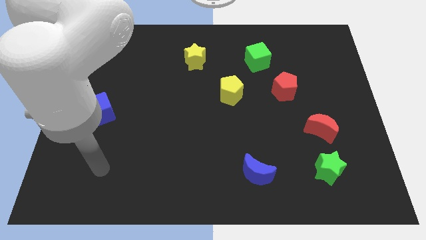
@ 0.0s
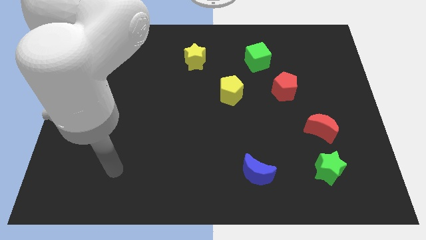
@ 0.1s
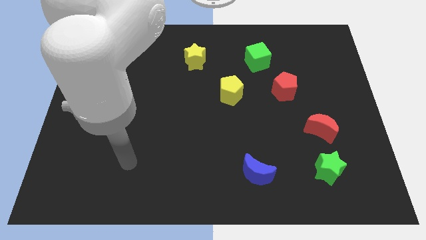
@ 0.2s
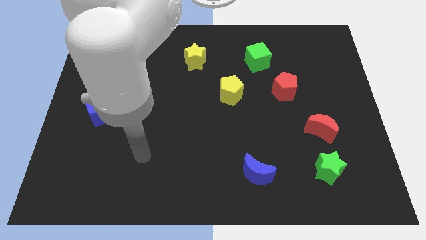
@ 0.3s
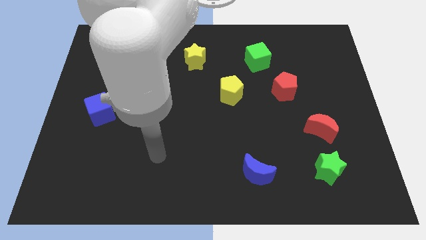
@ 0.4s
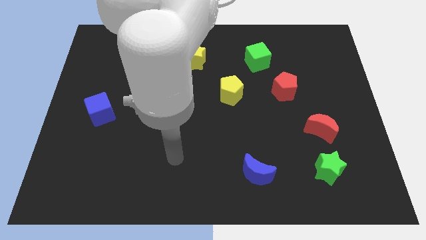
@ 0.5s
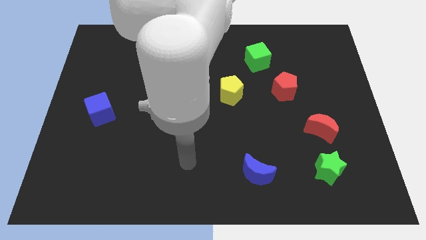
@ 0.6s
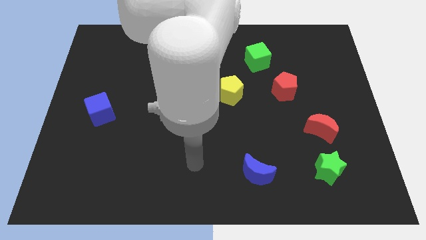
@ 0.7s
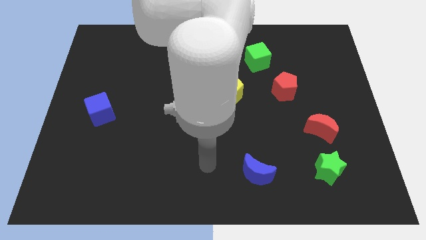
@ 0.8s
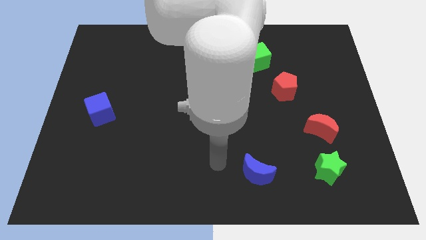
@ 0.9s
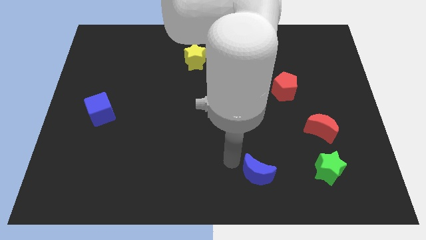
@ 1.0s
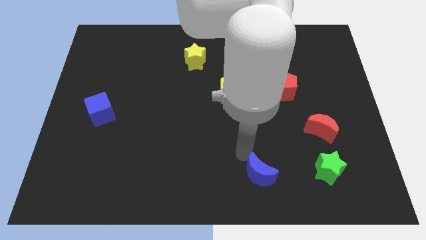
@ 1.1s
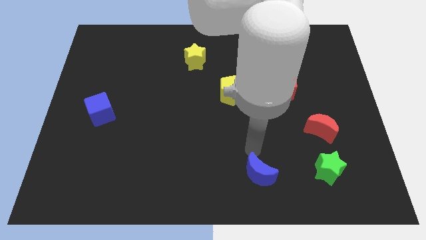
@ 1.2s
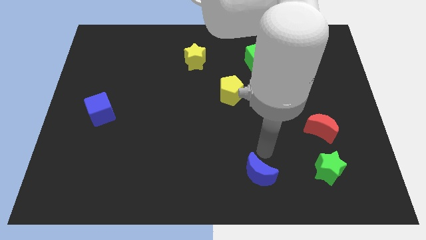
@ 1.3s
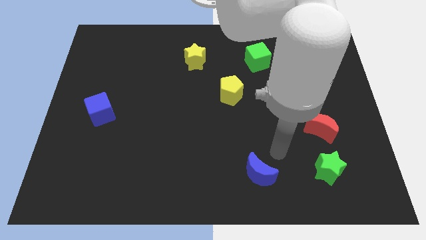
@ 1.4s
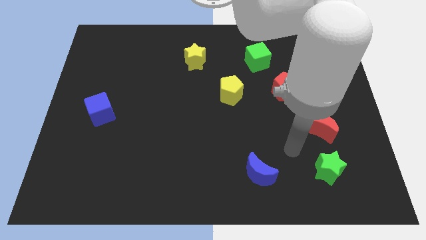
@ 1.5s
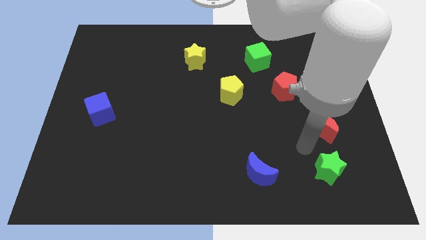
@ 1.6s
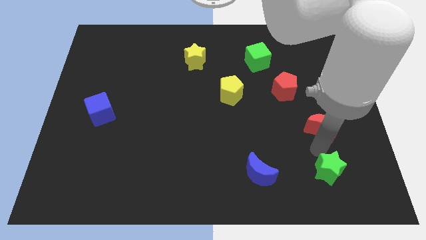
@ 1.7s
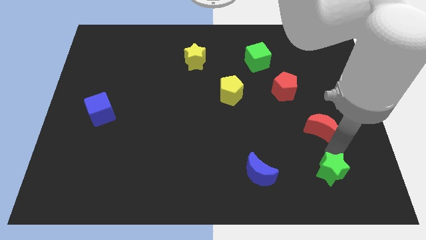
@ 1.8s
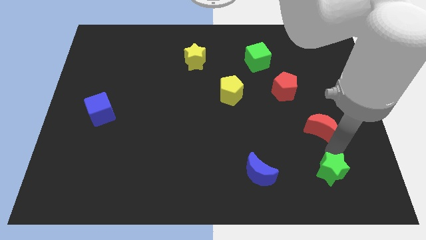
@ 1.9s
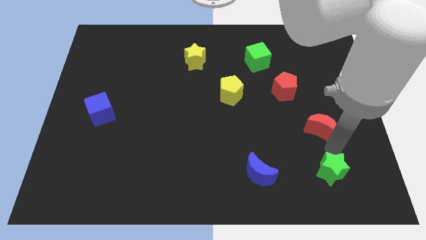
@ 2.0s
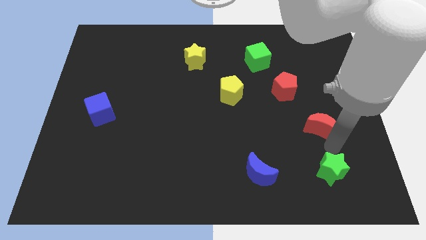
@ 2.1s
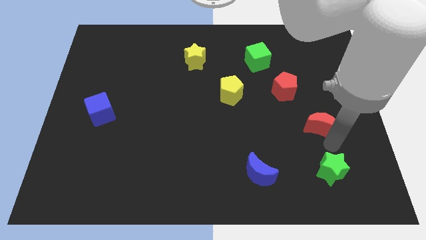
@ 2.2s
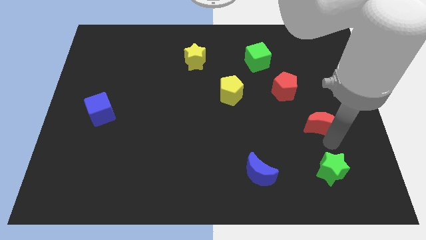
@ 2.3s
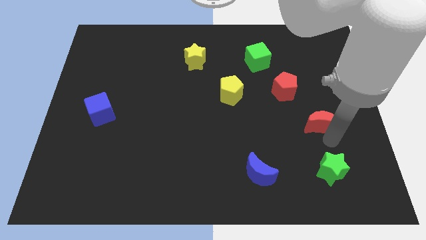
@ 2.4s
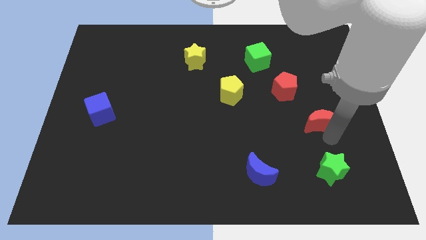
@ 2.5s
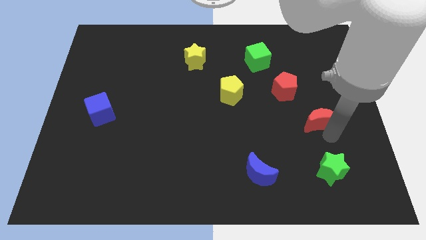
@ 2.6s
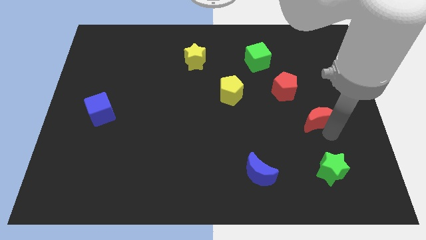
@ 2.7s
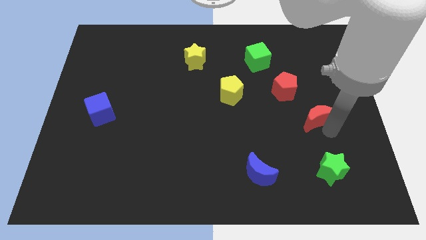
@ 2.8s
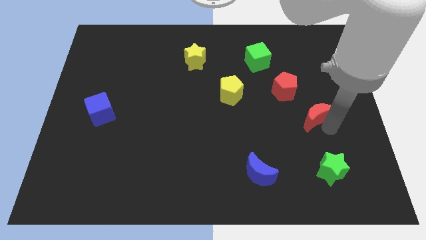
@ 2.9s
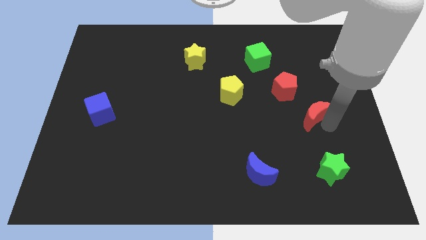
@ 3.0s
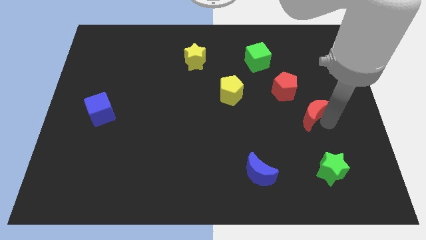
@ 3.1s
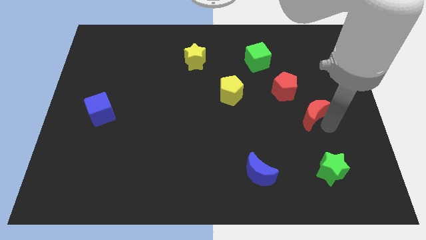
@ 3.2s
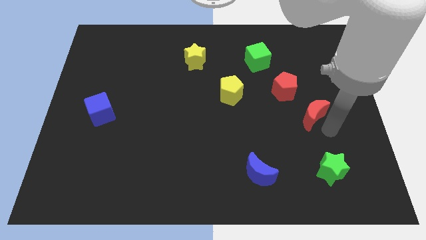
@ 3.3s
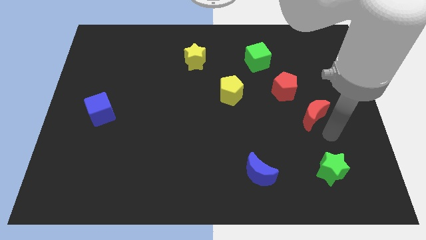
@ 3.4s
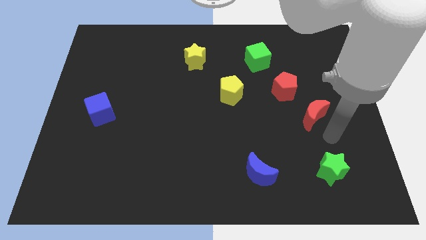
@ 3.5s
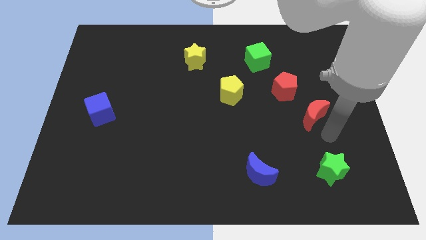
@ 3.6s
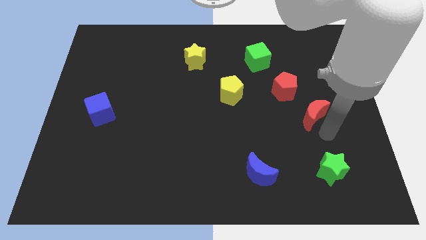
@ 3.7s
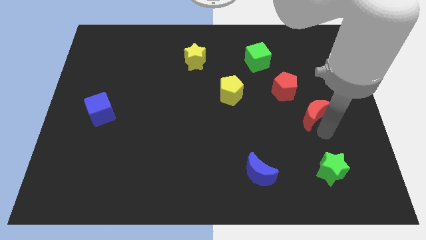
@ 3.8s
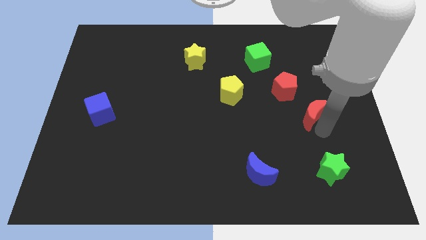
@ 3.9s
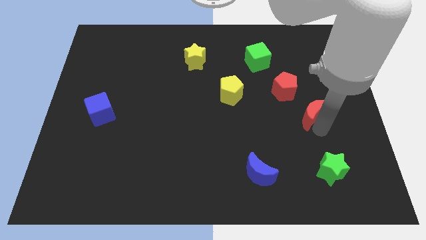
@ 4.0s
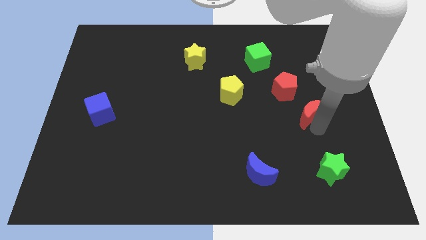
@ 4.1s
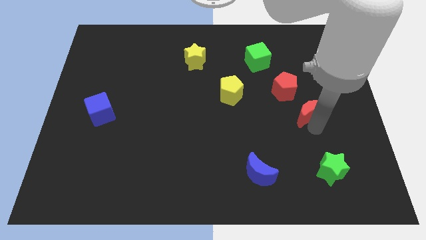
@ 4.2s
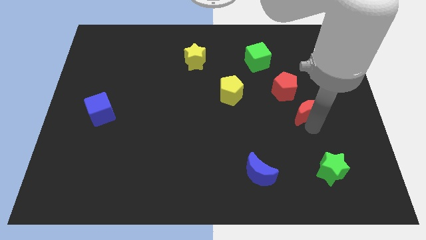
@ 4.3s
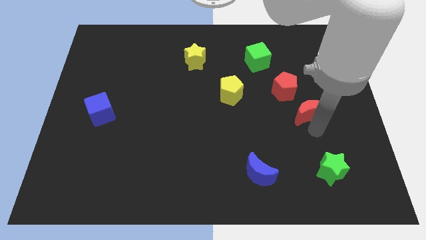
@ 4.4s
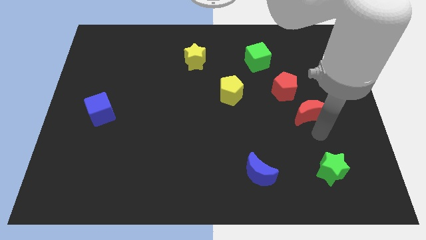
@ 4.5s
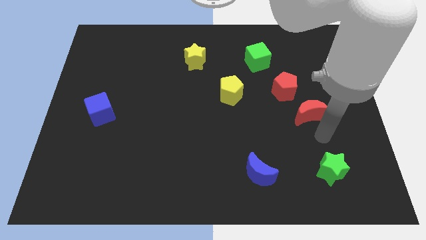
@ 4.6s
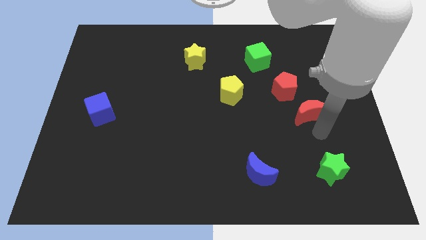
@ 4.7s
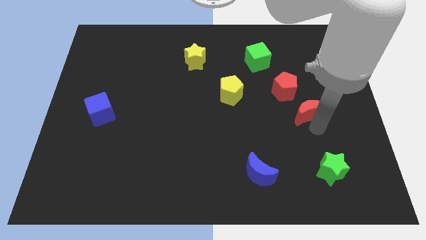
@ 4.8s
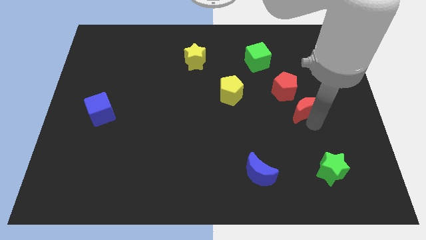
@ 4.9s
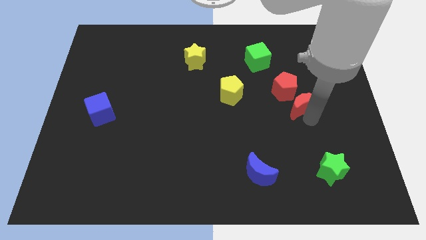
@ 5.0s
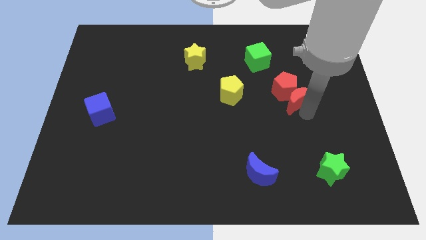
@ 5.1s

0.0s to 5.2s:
move the red moon close to the red pentagon

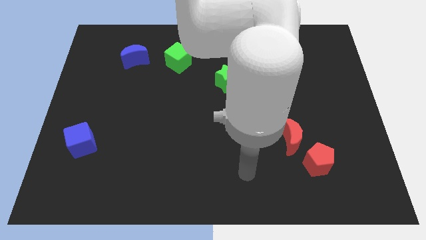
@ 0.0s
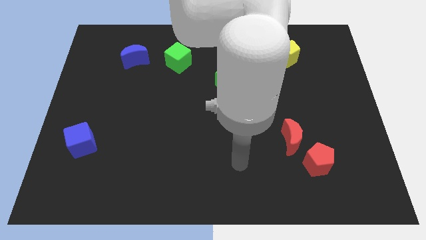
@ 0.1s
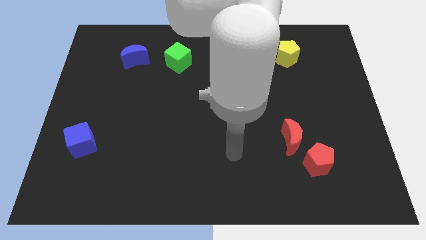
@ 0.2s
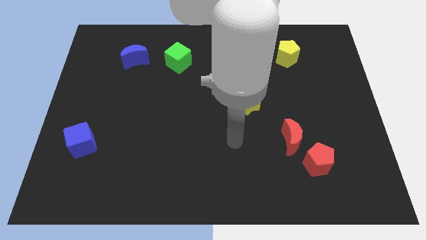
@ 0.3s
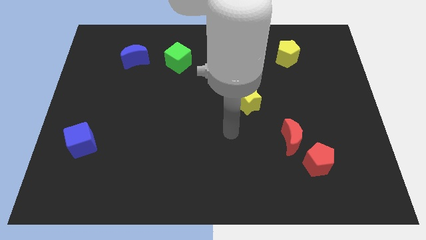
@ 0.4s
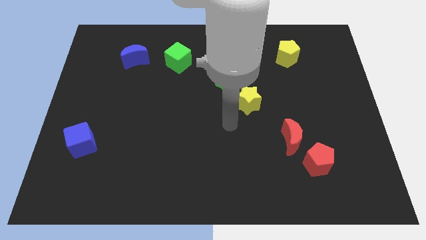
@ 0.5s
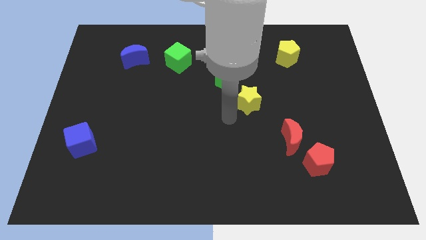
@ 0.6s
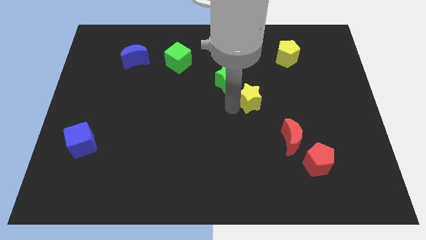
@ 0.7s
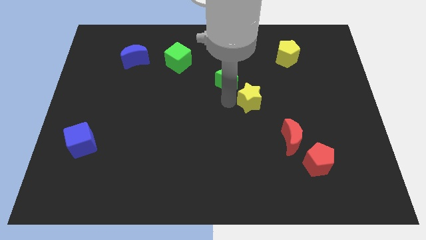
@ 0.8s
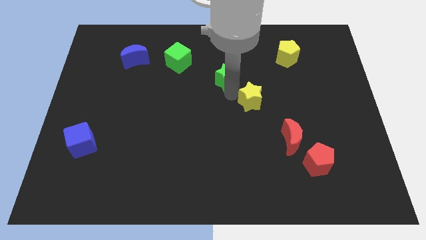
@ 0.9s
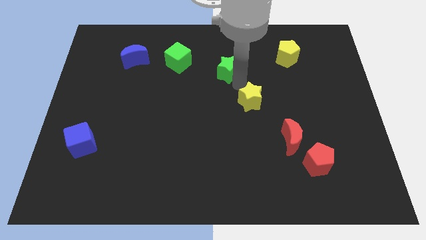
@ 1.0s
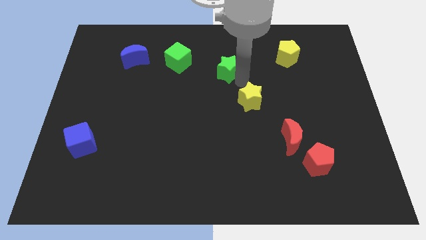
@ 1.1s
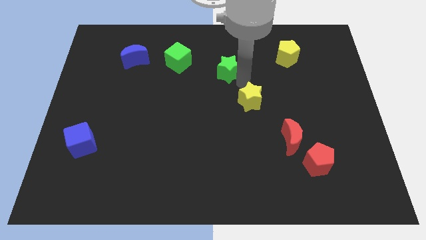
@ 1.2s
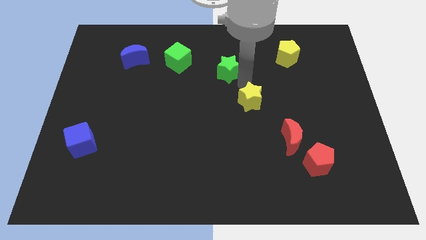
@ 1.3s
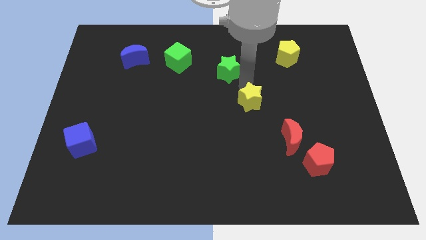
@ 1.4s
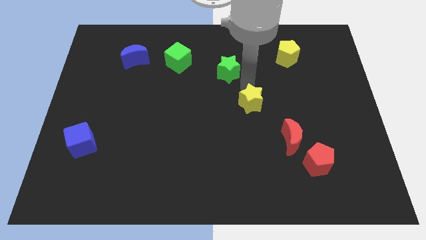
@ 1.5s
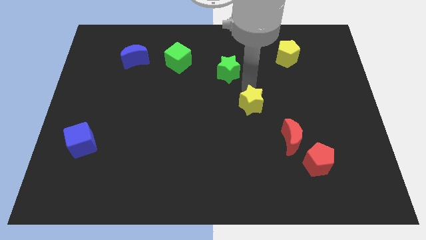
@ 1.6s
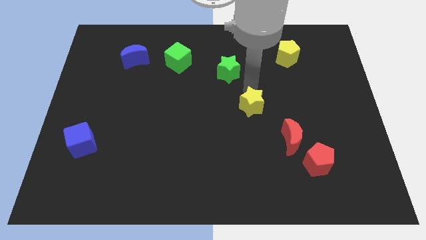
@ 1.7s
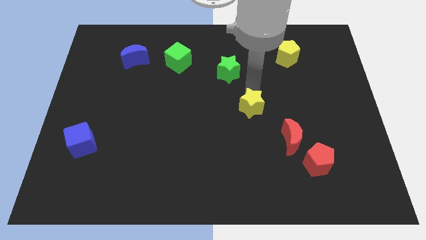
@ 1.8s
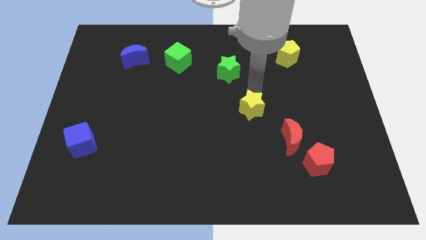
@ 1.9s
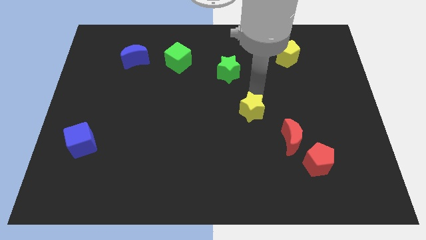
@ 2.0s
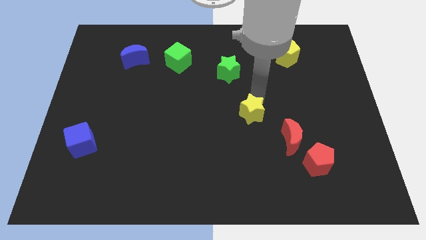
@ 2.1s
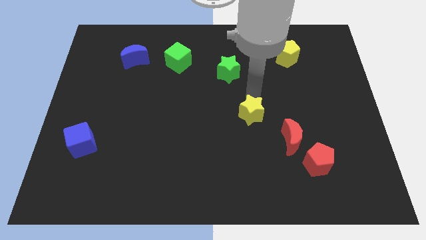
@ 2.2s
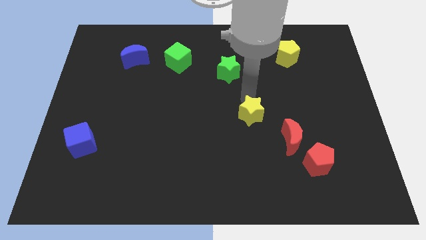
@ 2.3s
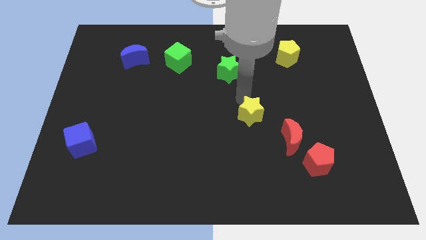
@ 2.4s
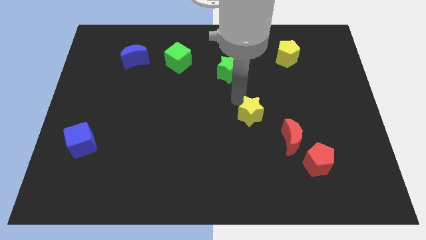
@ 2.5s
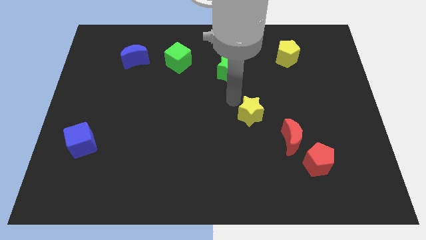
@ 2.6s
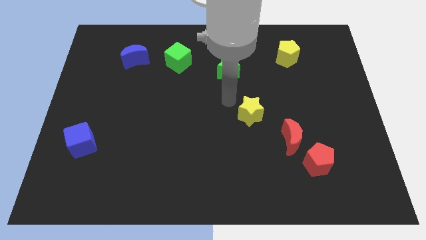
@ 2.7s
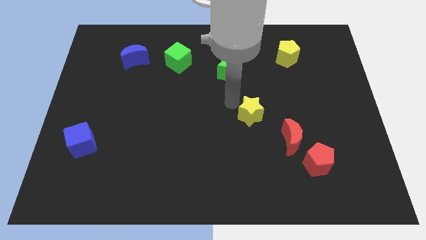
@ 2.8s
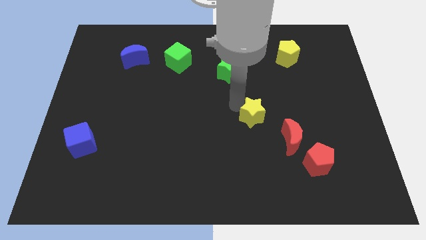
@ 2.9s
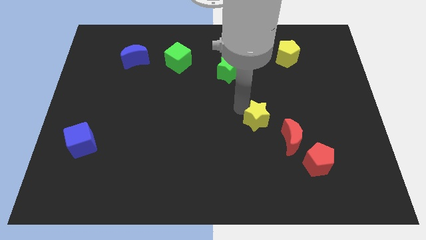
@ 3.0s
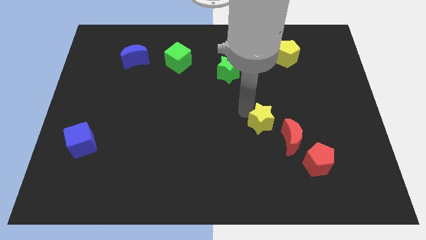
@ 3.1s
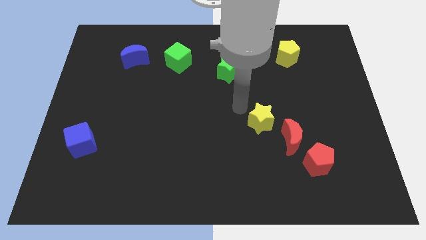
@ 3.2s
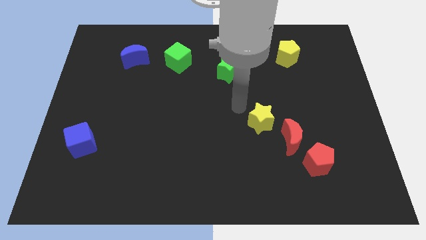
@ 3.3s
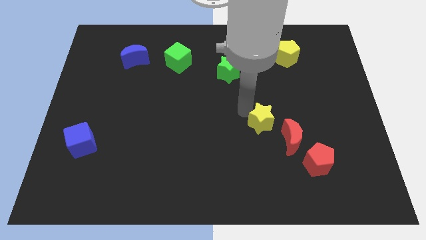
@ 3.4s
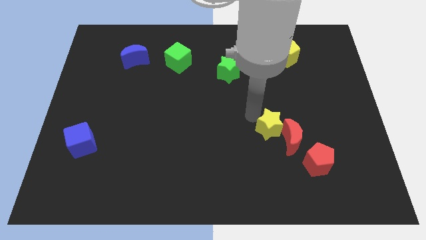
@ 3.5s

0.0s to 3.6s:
push the yellow star towards the red moon
